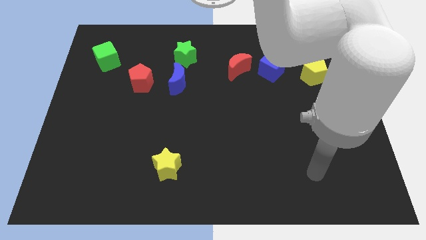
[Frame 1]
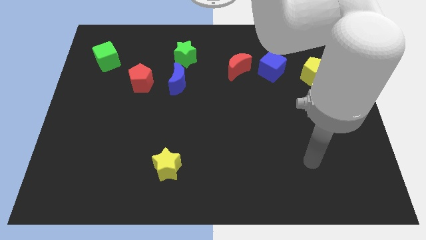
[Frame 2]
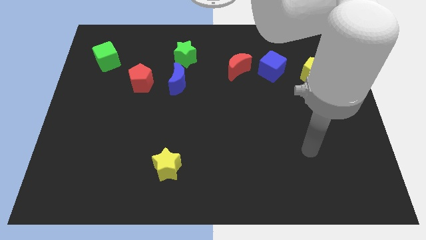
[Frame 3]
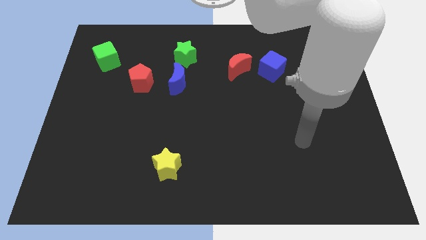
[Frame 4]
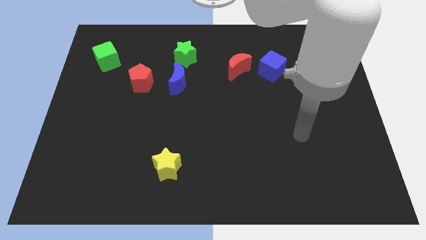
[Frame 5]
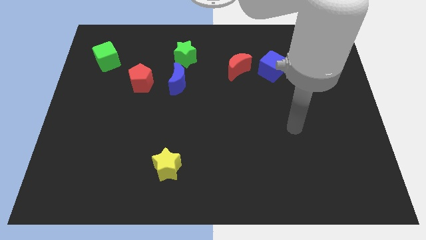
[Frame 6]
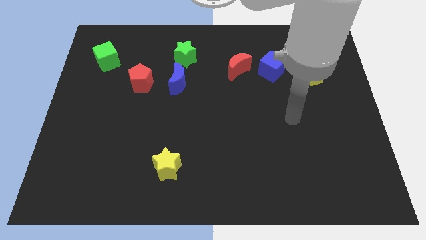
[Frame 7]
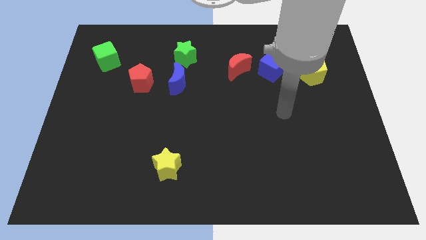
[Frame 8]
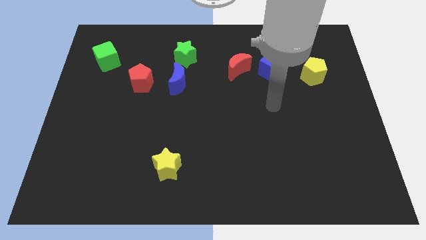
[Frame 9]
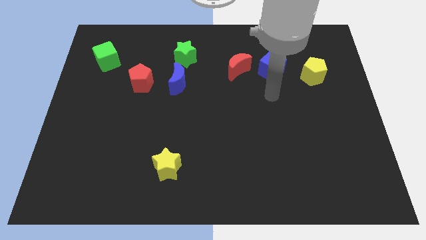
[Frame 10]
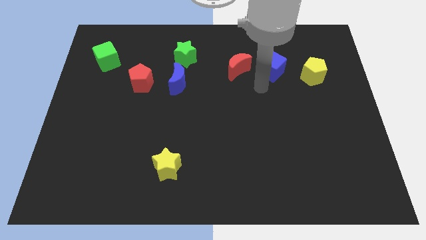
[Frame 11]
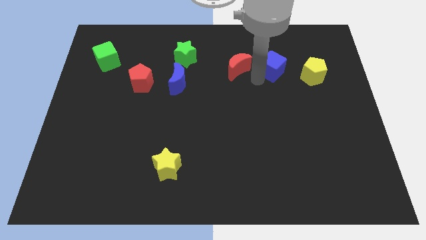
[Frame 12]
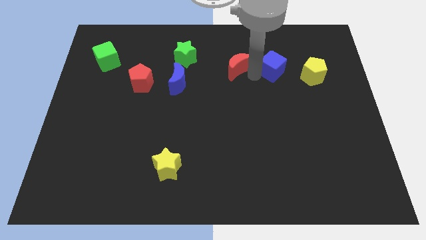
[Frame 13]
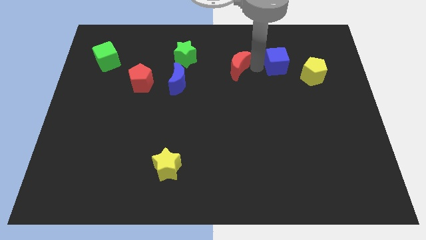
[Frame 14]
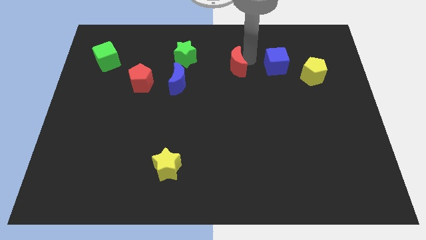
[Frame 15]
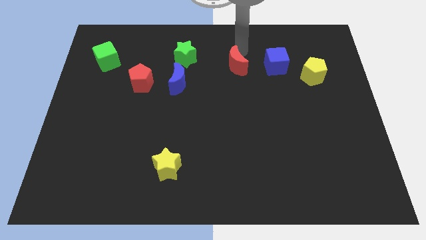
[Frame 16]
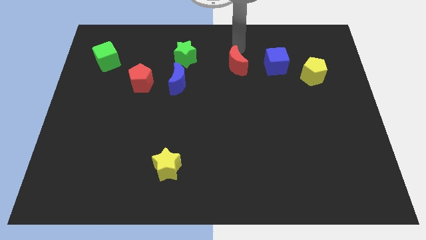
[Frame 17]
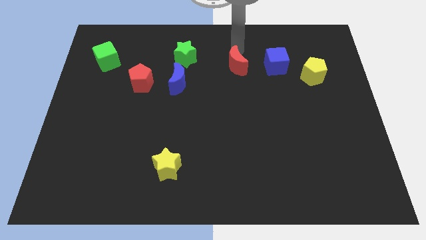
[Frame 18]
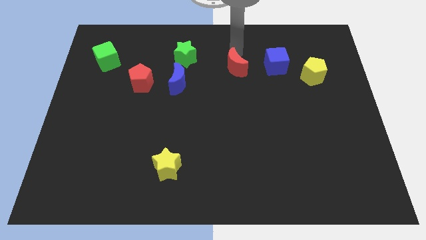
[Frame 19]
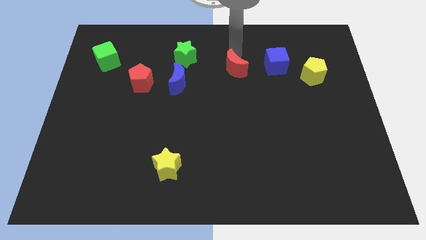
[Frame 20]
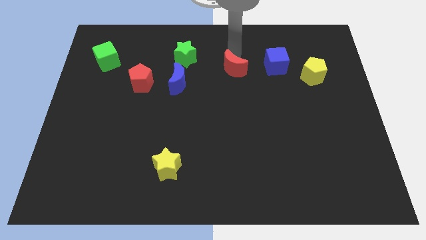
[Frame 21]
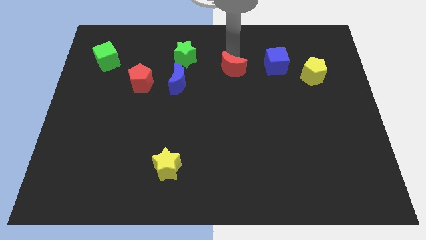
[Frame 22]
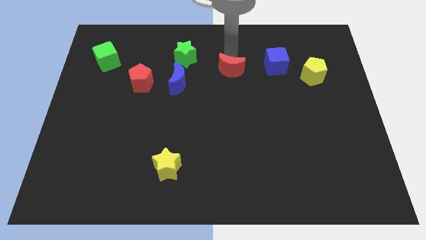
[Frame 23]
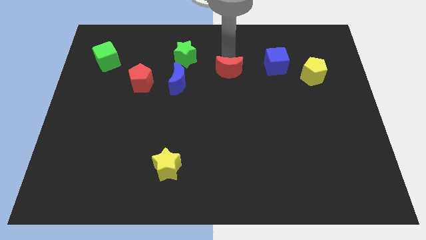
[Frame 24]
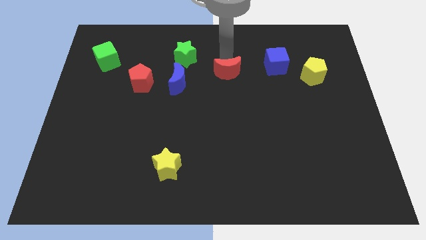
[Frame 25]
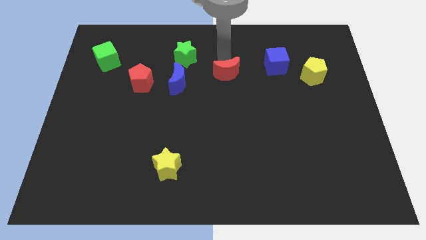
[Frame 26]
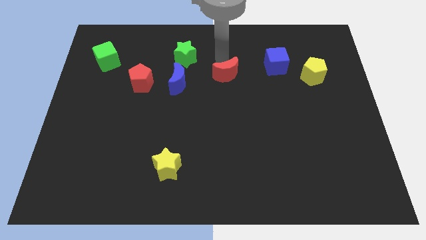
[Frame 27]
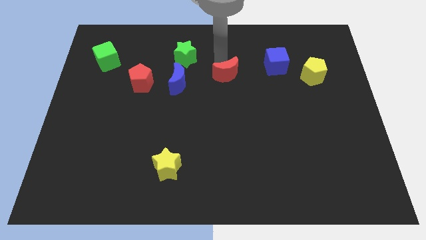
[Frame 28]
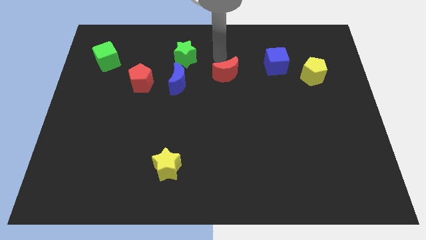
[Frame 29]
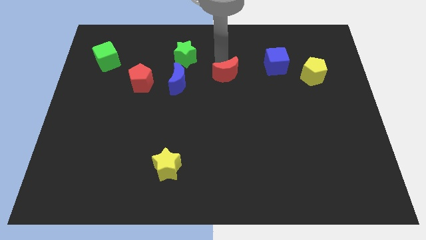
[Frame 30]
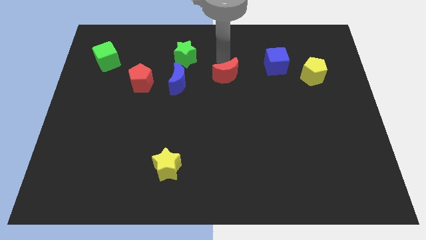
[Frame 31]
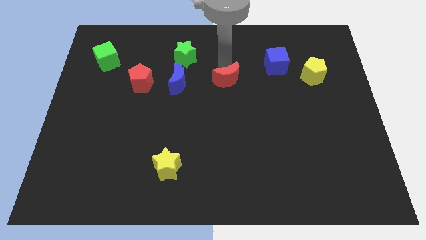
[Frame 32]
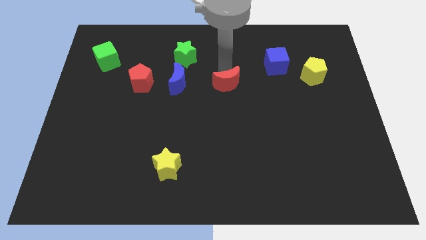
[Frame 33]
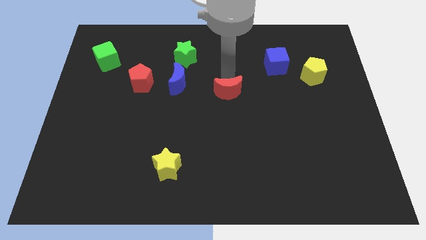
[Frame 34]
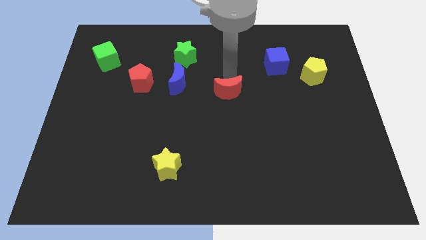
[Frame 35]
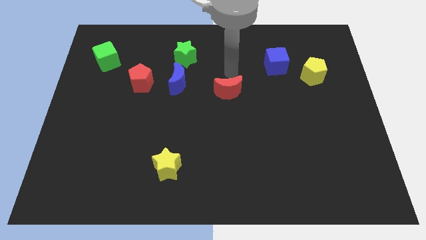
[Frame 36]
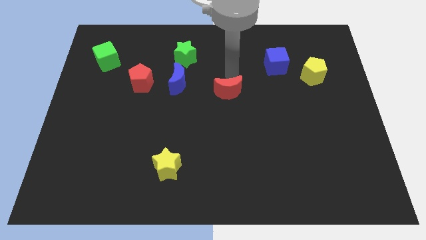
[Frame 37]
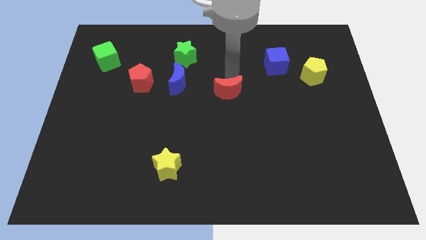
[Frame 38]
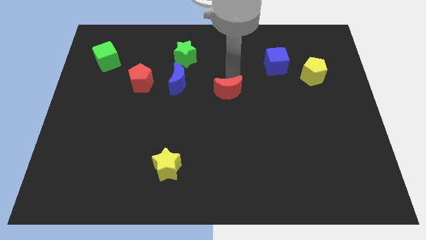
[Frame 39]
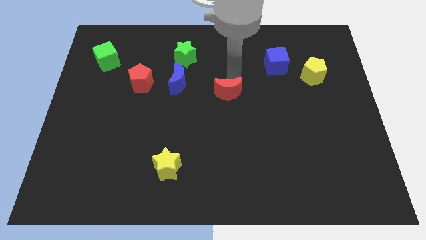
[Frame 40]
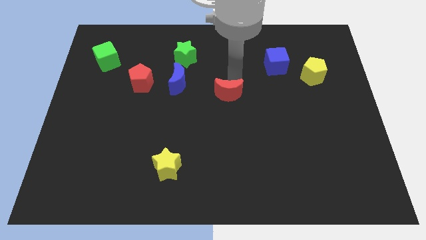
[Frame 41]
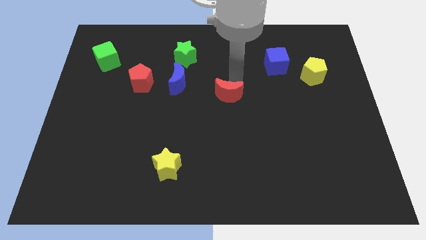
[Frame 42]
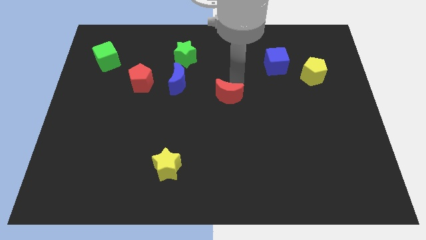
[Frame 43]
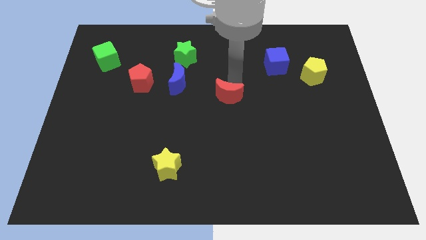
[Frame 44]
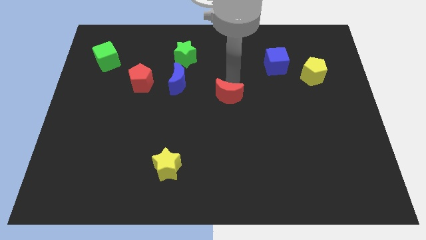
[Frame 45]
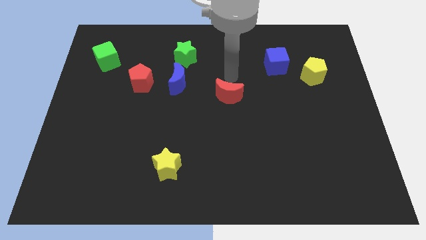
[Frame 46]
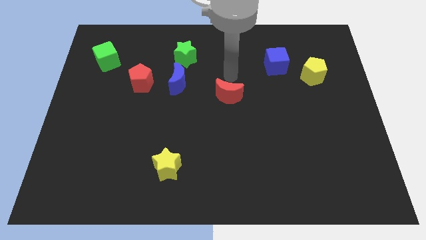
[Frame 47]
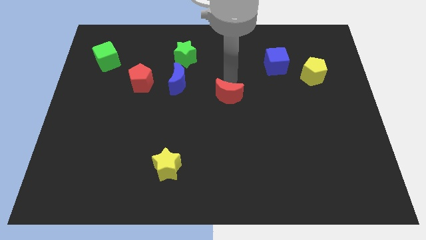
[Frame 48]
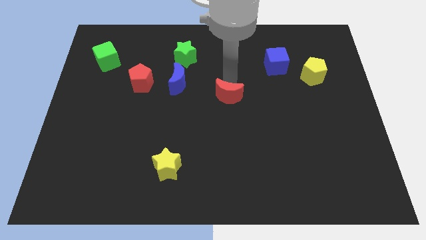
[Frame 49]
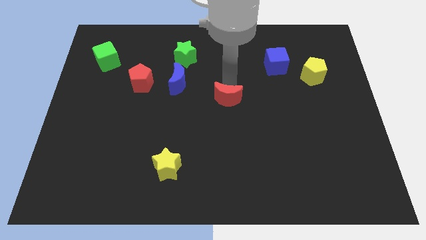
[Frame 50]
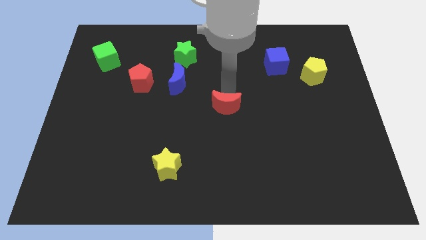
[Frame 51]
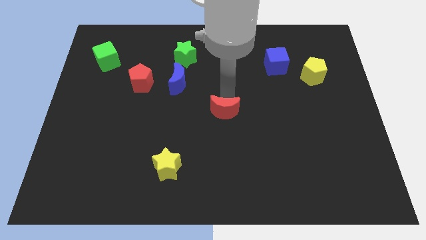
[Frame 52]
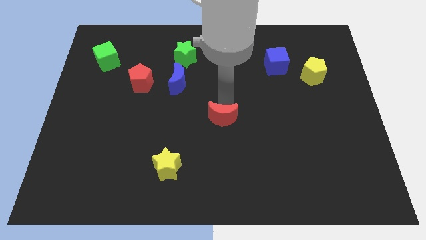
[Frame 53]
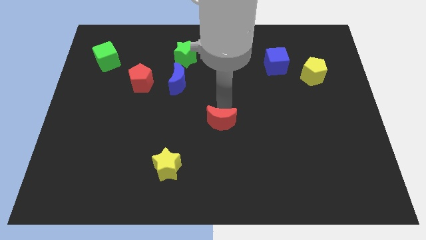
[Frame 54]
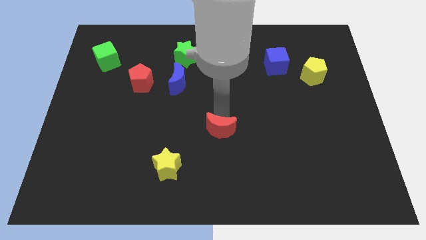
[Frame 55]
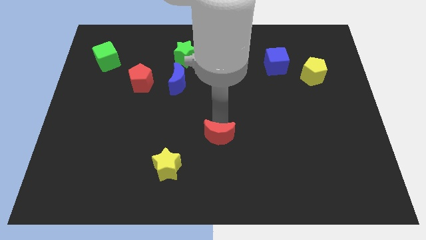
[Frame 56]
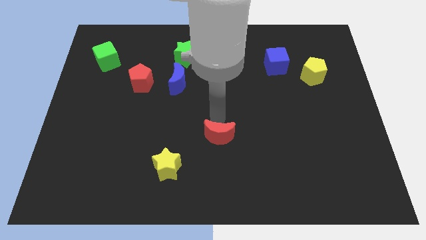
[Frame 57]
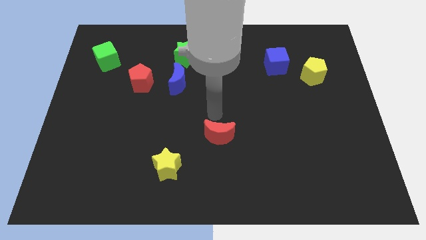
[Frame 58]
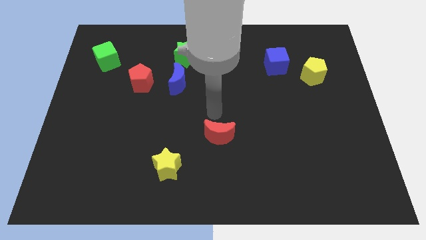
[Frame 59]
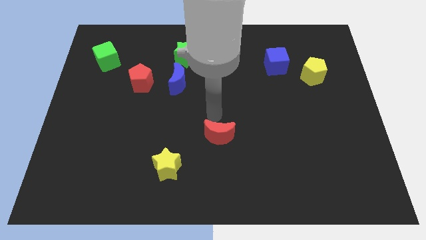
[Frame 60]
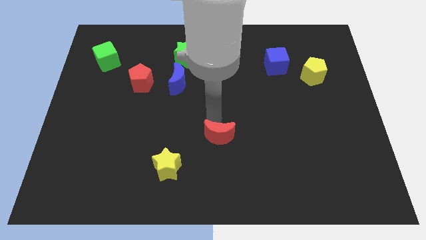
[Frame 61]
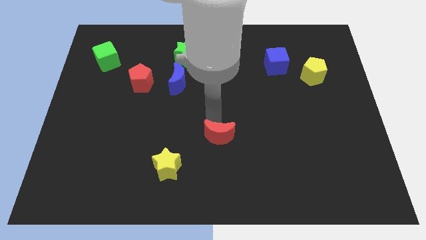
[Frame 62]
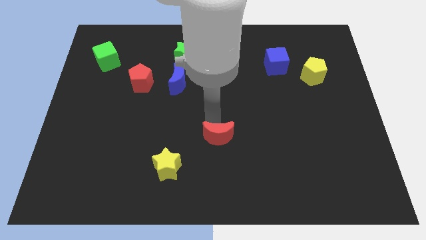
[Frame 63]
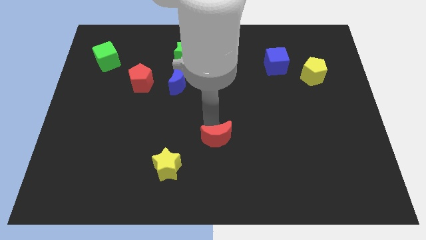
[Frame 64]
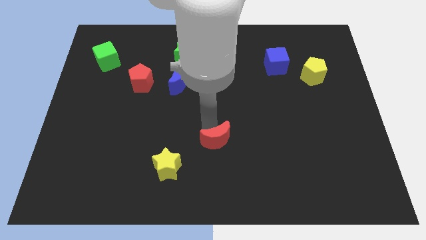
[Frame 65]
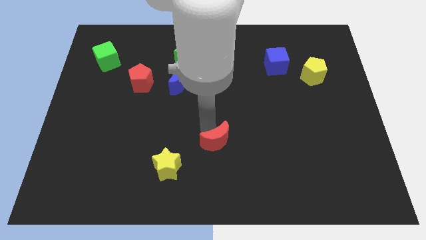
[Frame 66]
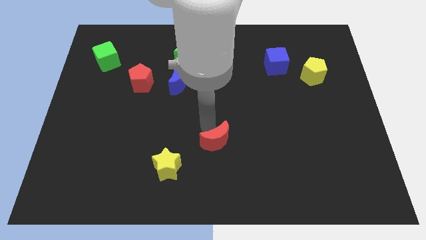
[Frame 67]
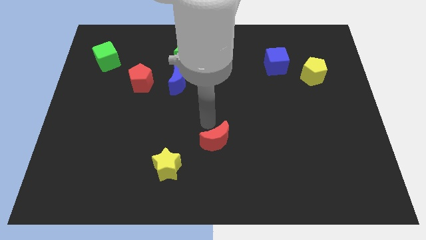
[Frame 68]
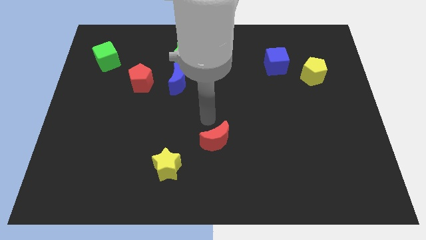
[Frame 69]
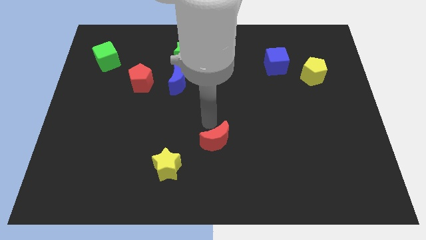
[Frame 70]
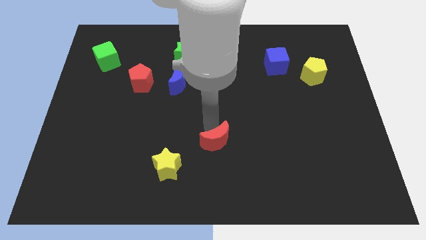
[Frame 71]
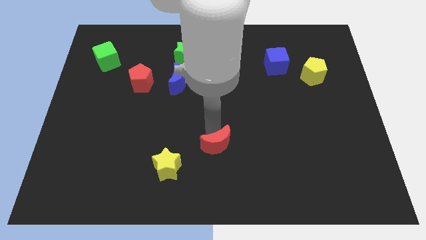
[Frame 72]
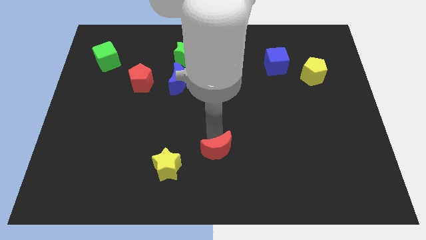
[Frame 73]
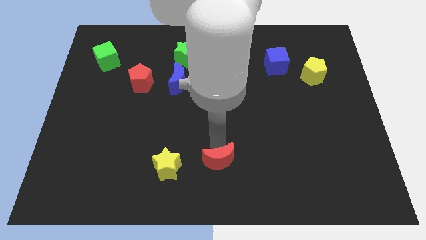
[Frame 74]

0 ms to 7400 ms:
put the red moon to the bottom side
